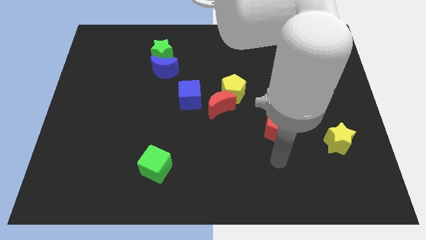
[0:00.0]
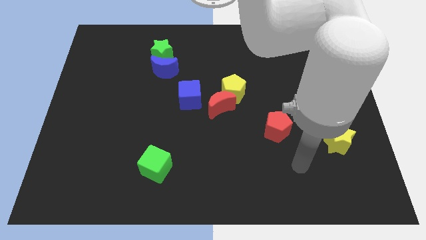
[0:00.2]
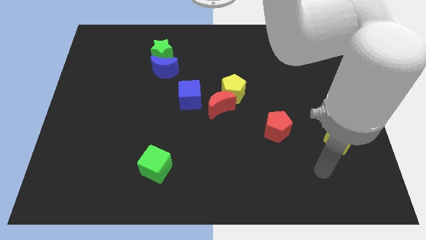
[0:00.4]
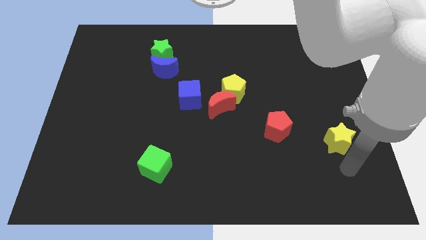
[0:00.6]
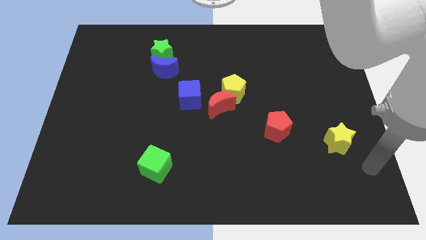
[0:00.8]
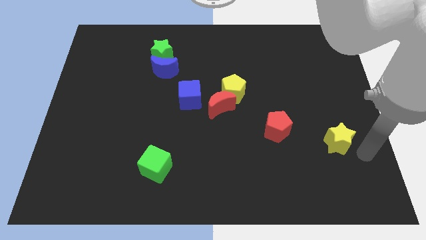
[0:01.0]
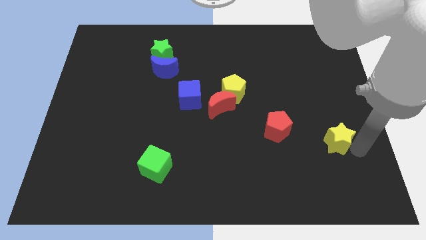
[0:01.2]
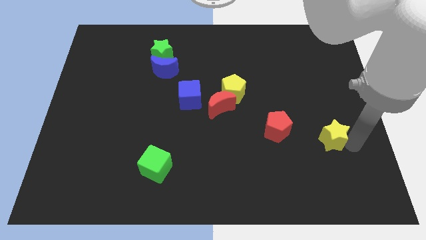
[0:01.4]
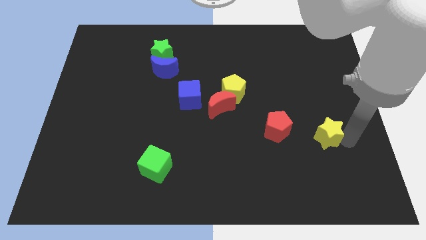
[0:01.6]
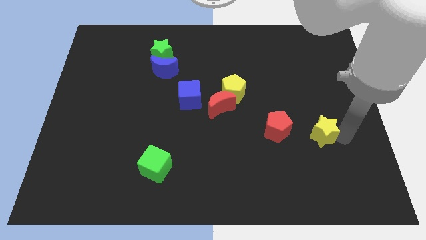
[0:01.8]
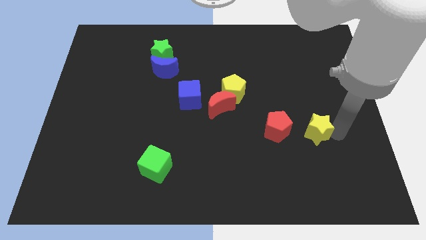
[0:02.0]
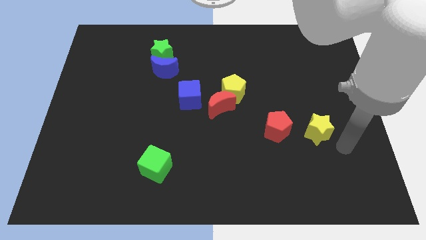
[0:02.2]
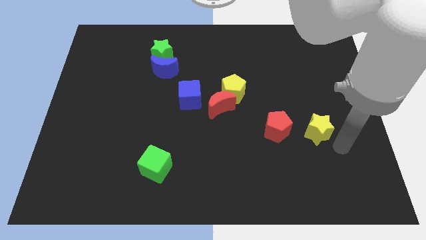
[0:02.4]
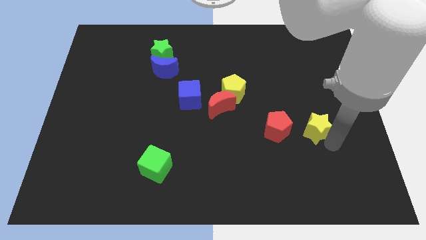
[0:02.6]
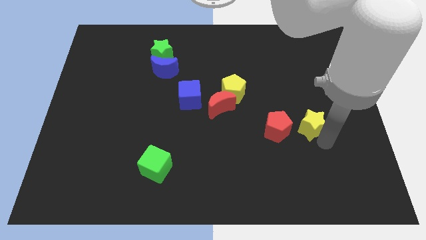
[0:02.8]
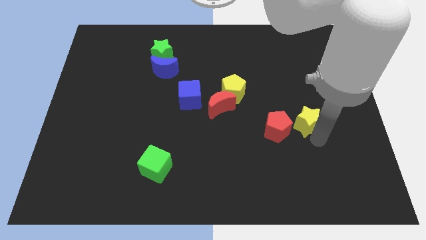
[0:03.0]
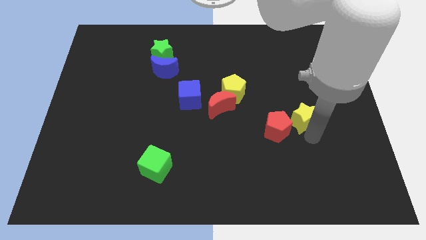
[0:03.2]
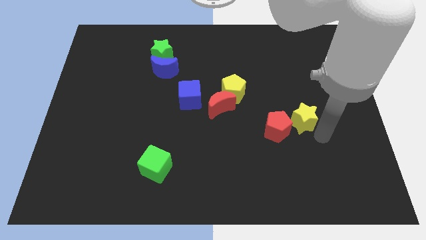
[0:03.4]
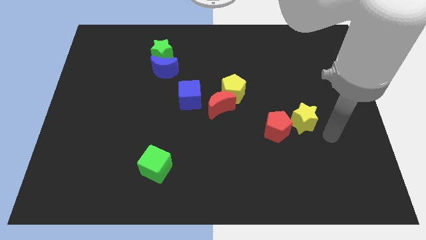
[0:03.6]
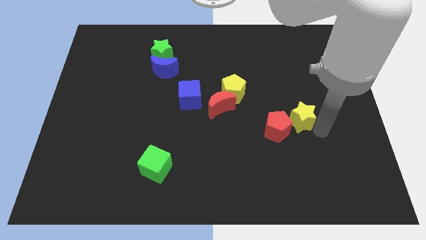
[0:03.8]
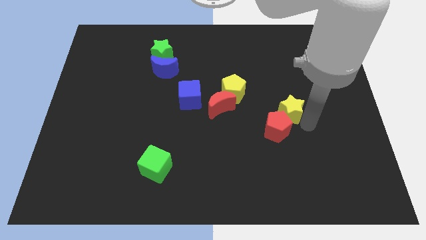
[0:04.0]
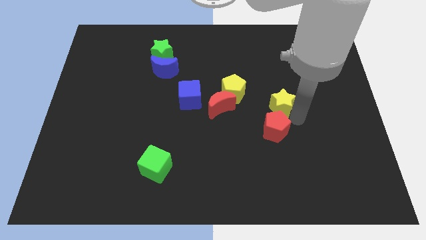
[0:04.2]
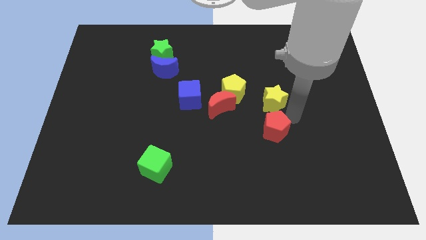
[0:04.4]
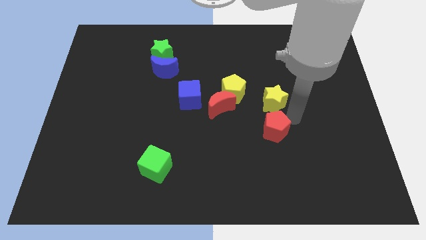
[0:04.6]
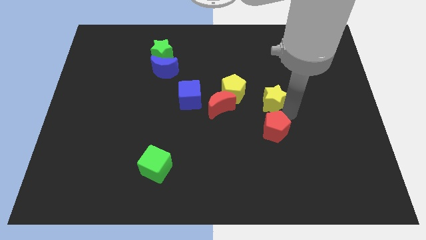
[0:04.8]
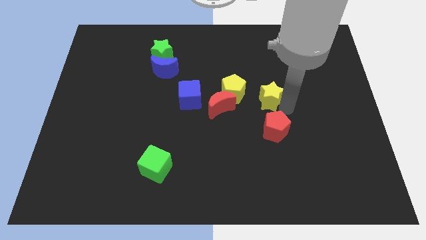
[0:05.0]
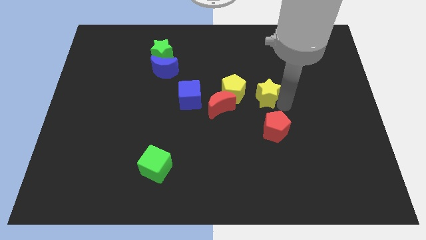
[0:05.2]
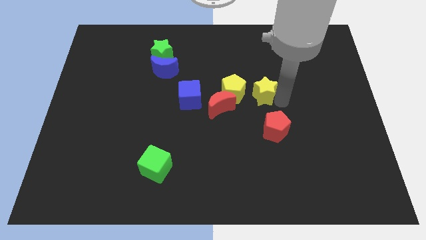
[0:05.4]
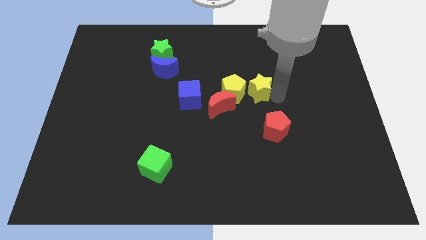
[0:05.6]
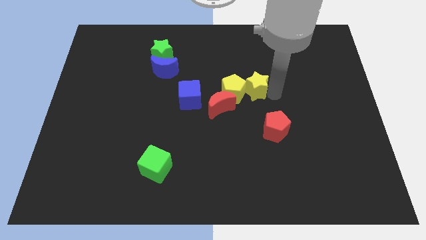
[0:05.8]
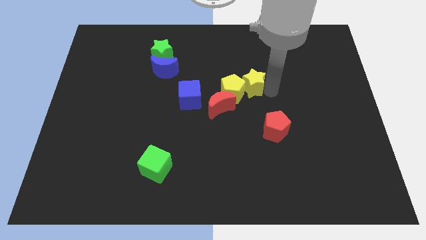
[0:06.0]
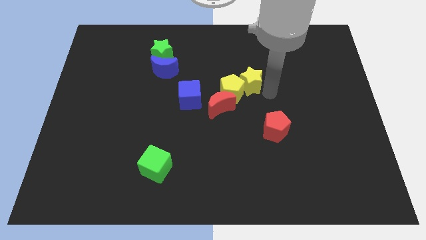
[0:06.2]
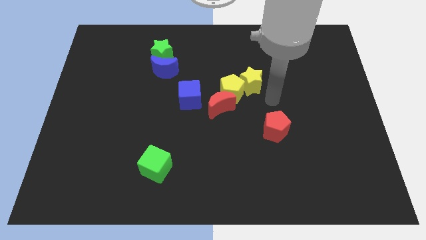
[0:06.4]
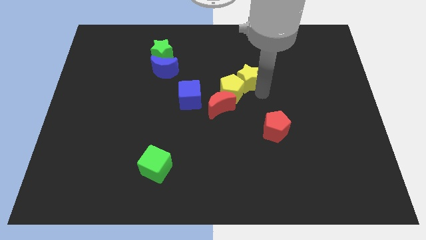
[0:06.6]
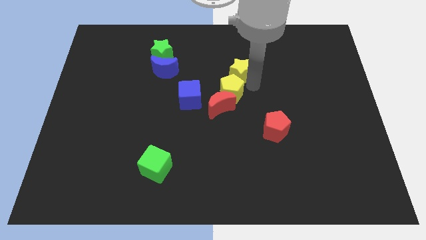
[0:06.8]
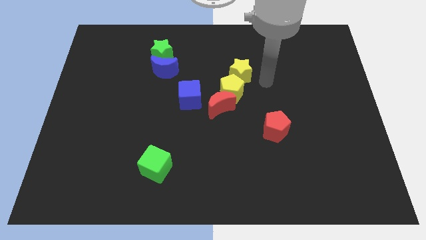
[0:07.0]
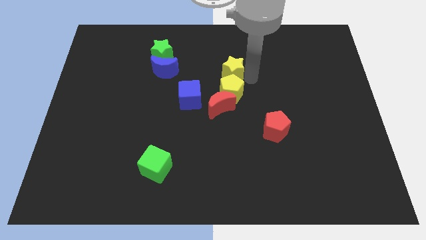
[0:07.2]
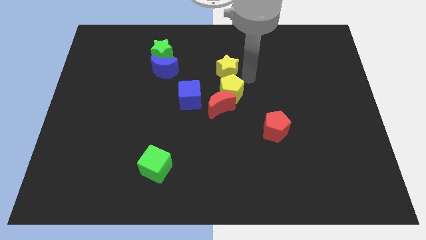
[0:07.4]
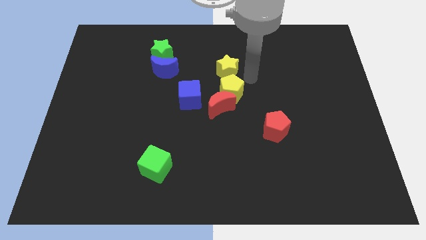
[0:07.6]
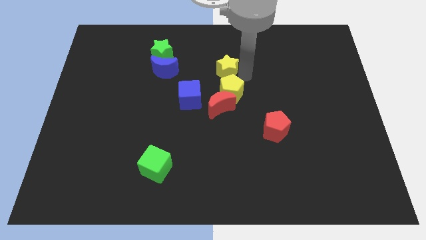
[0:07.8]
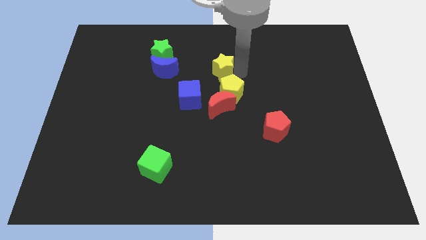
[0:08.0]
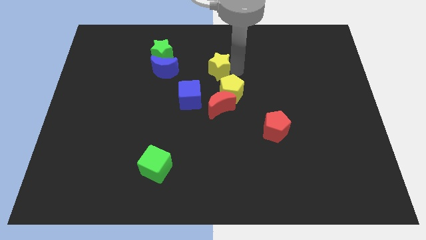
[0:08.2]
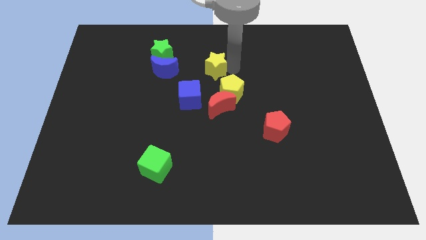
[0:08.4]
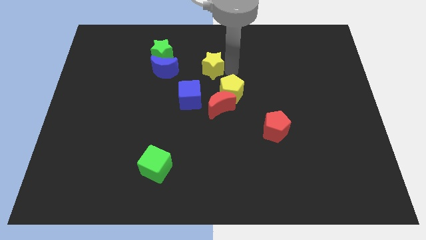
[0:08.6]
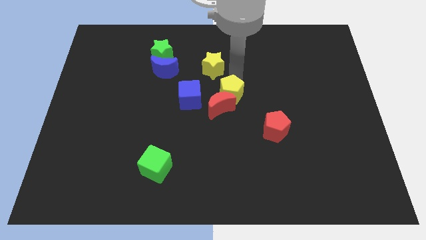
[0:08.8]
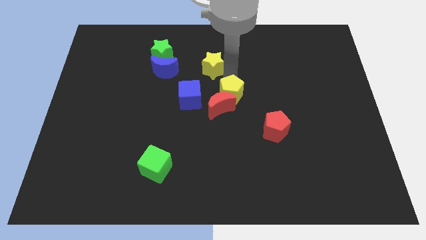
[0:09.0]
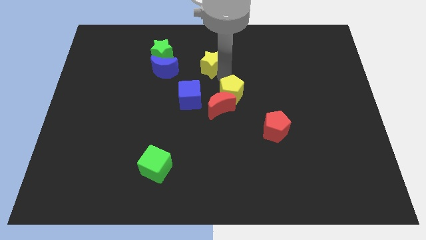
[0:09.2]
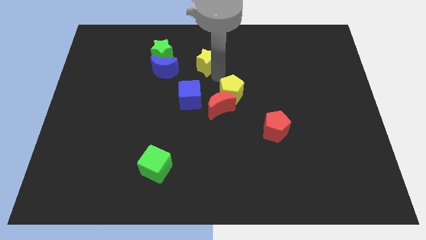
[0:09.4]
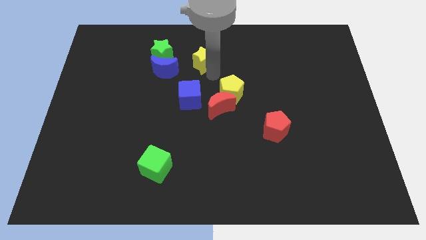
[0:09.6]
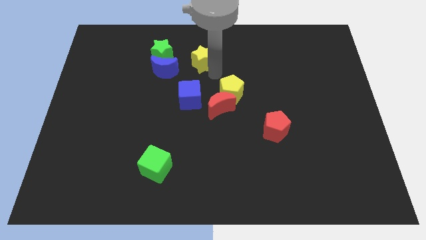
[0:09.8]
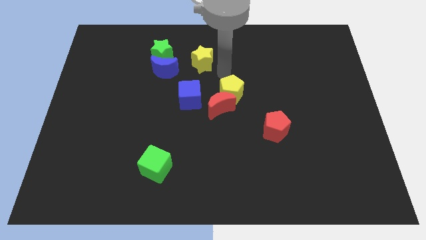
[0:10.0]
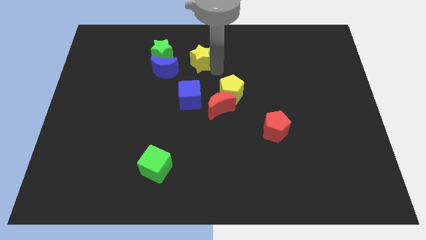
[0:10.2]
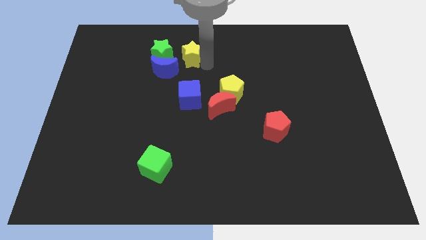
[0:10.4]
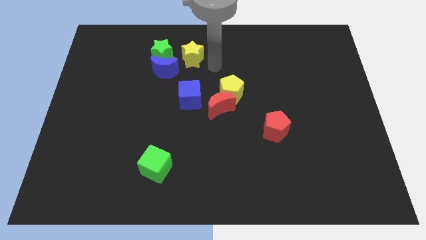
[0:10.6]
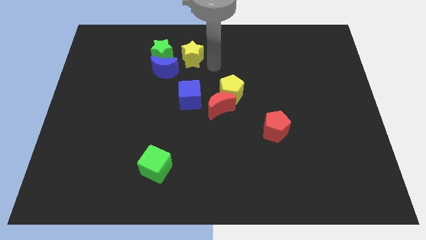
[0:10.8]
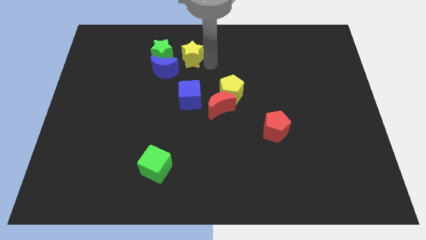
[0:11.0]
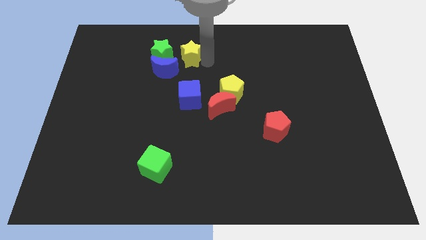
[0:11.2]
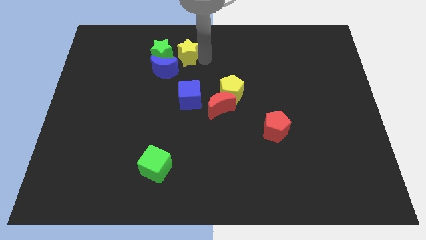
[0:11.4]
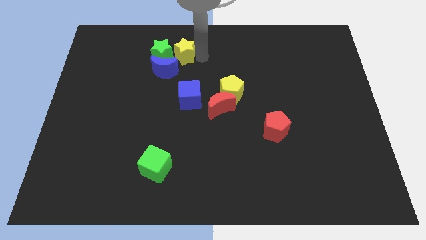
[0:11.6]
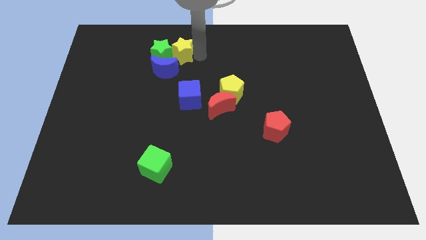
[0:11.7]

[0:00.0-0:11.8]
move the yellow star towards the green star

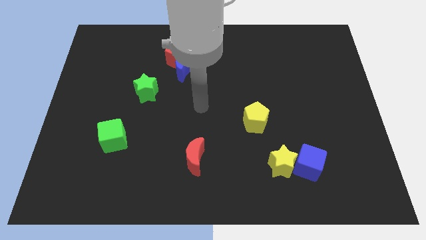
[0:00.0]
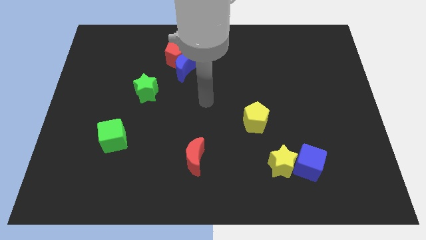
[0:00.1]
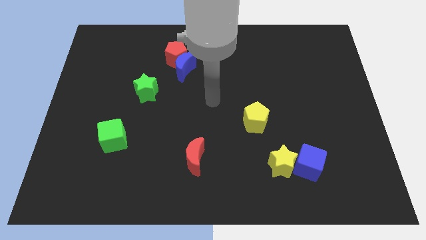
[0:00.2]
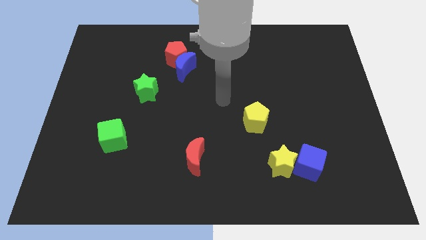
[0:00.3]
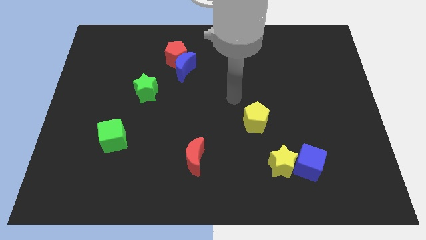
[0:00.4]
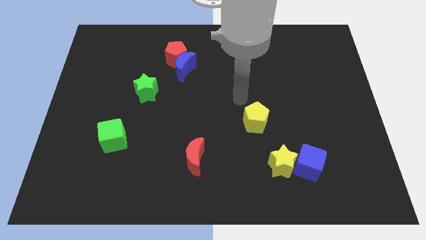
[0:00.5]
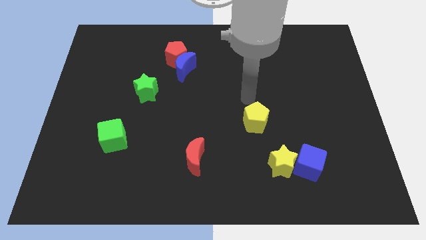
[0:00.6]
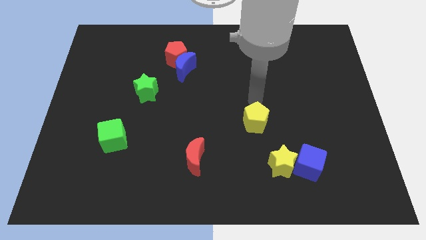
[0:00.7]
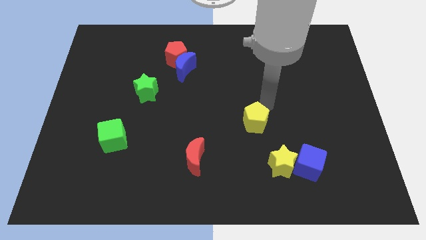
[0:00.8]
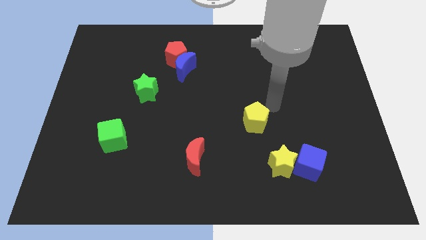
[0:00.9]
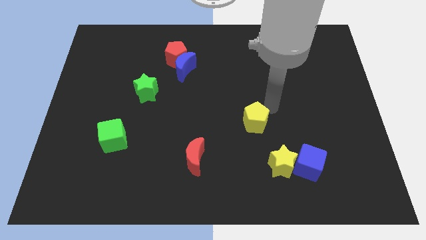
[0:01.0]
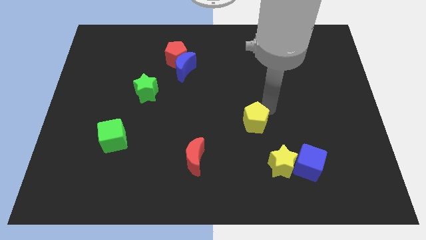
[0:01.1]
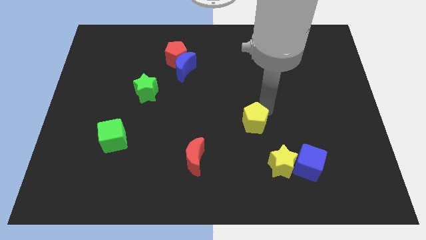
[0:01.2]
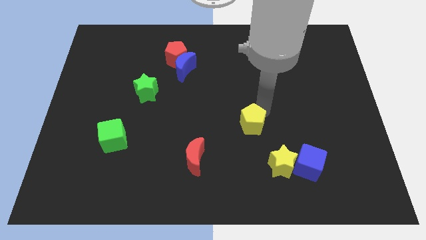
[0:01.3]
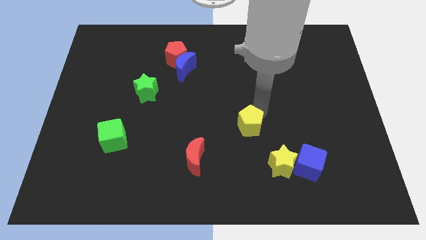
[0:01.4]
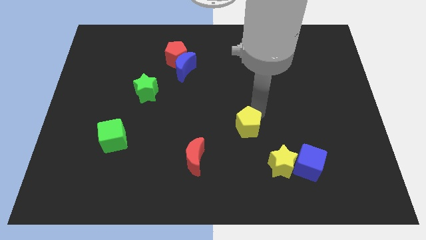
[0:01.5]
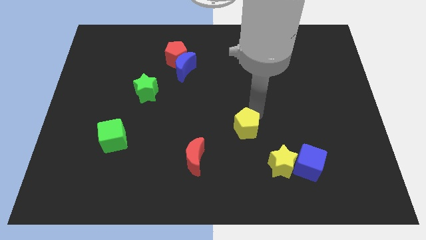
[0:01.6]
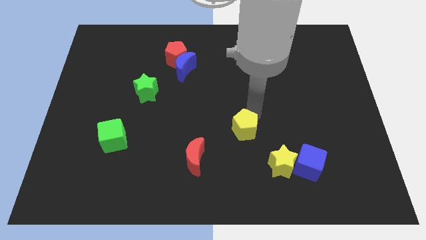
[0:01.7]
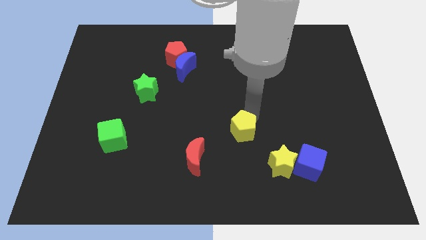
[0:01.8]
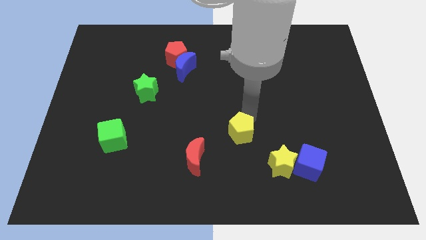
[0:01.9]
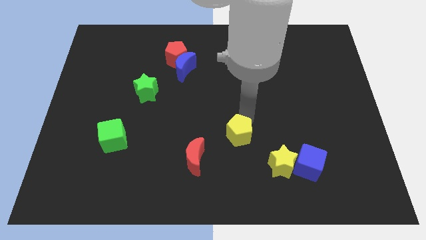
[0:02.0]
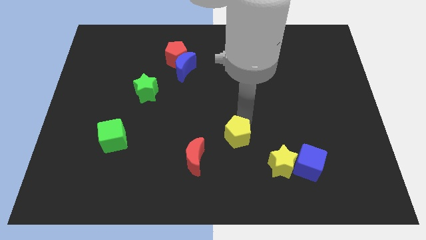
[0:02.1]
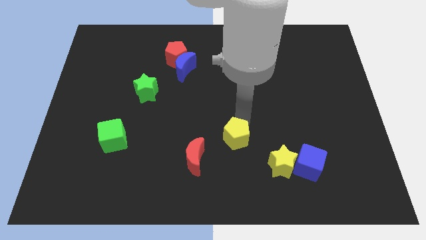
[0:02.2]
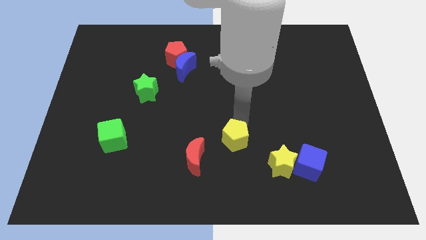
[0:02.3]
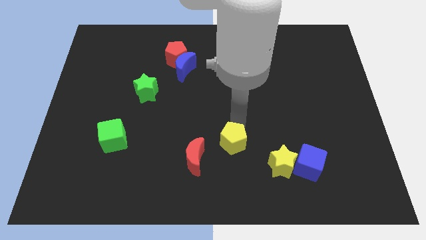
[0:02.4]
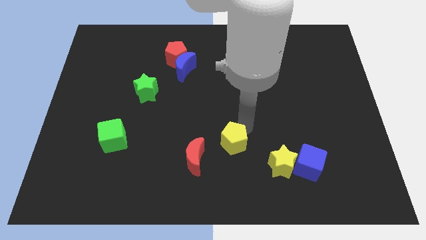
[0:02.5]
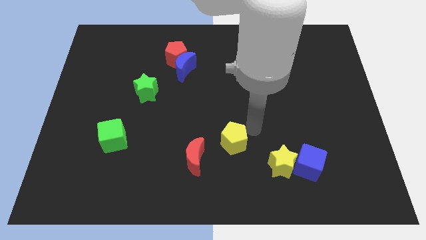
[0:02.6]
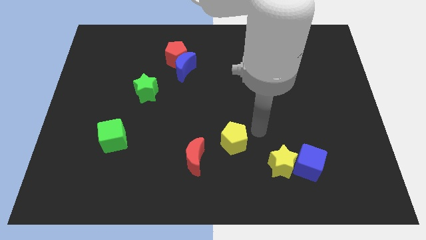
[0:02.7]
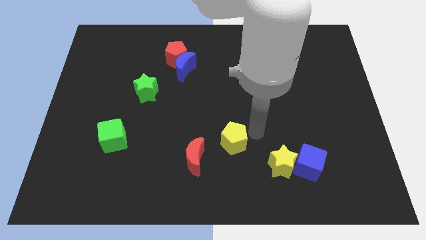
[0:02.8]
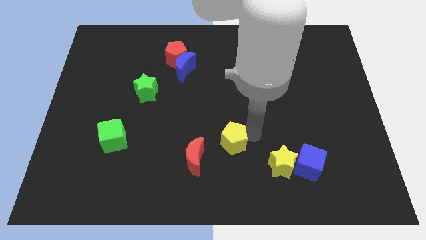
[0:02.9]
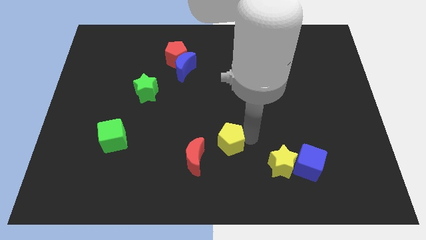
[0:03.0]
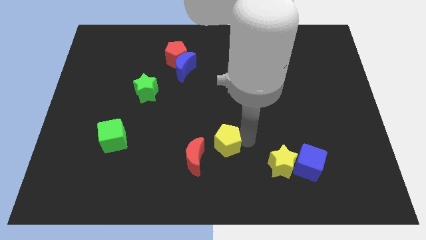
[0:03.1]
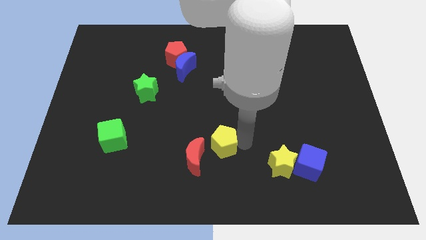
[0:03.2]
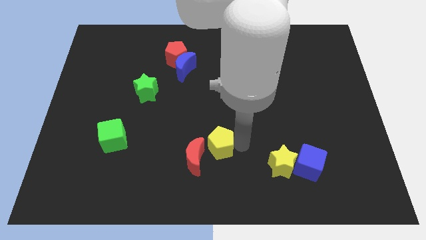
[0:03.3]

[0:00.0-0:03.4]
slide the yellow pentagon towards the red moon
